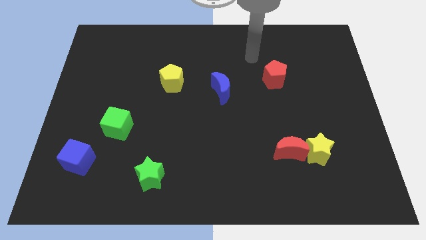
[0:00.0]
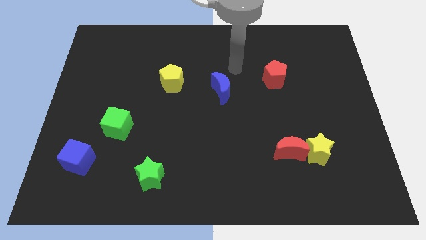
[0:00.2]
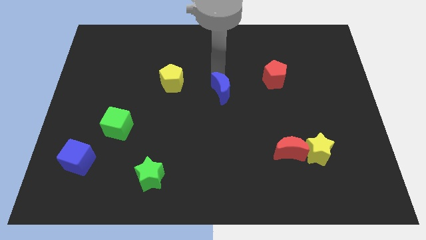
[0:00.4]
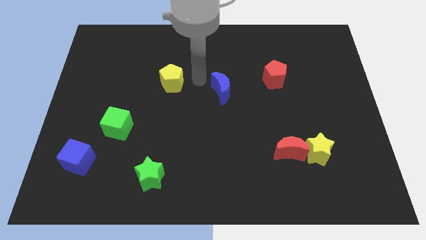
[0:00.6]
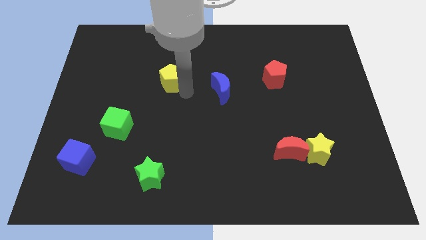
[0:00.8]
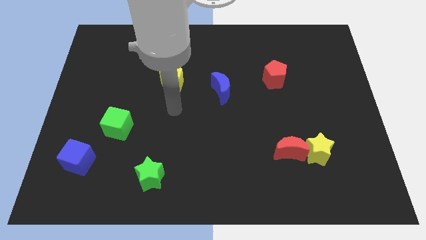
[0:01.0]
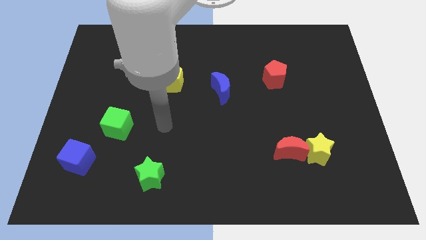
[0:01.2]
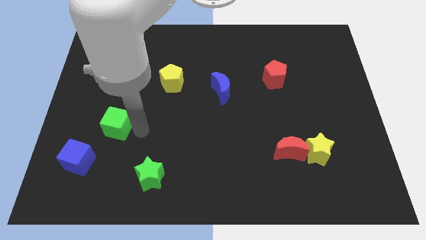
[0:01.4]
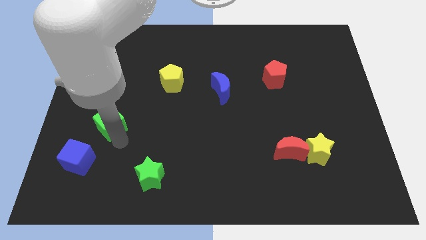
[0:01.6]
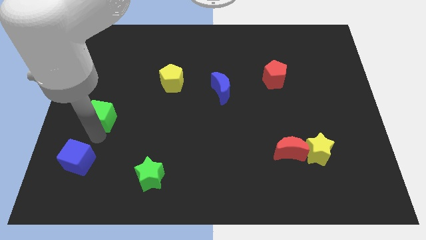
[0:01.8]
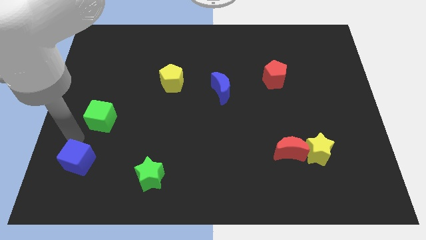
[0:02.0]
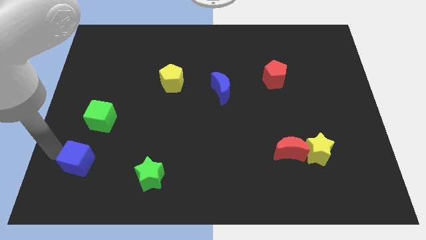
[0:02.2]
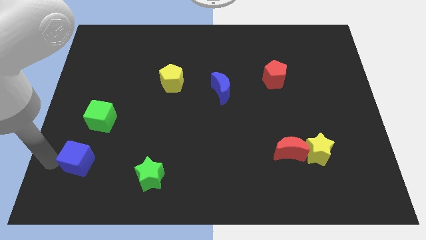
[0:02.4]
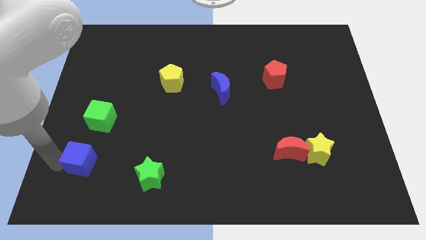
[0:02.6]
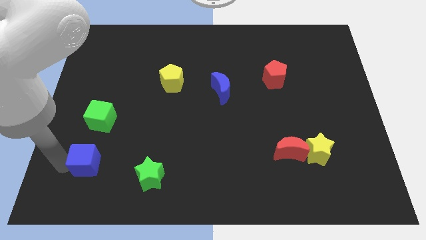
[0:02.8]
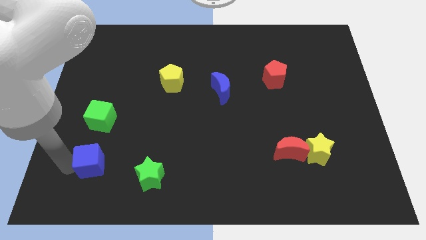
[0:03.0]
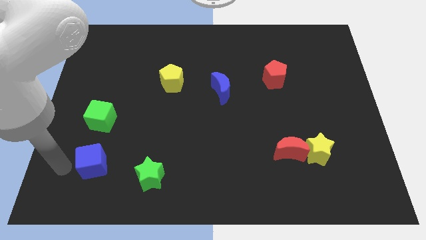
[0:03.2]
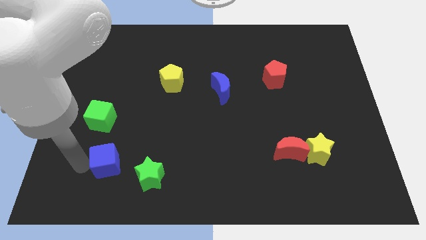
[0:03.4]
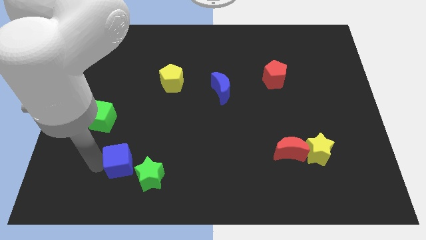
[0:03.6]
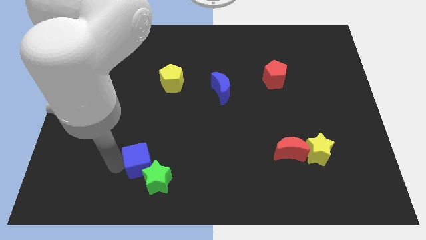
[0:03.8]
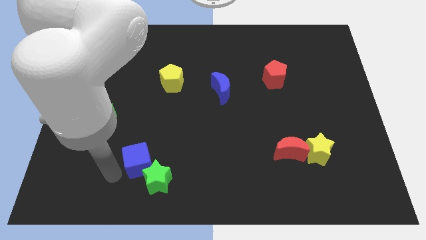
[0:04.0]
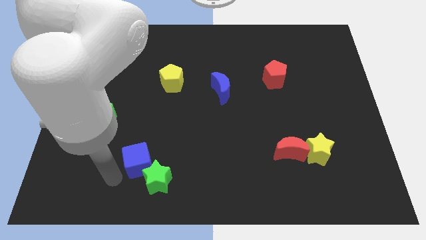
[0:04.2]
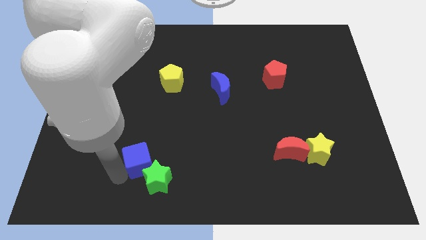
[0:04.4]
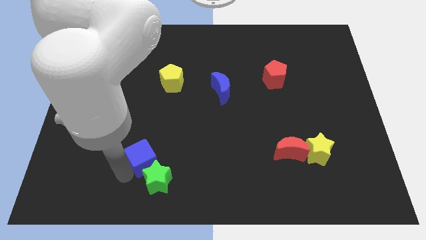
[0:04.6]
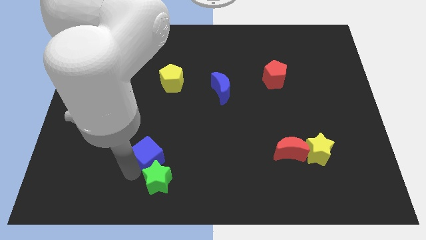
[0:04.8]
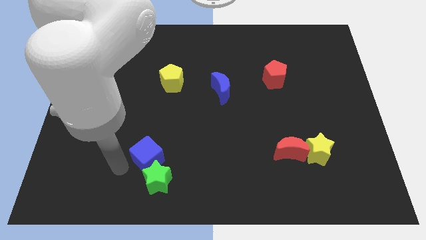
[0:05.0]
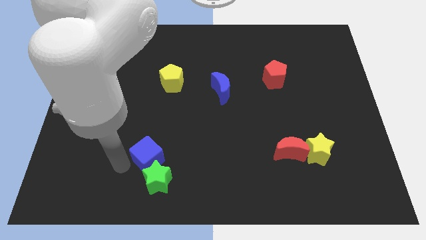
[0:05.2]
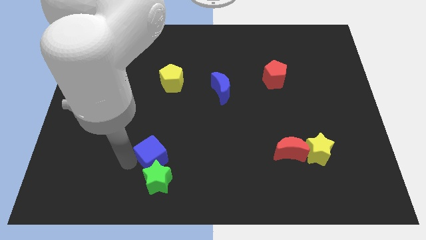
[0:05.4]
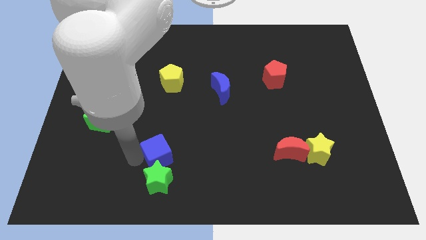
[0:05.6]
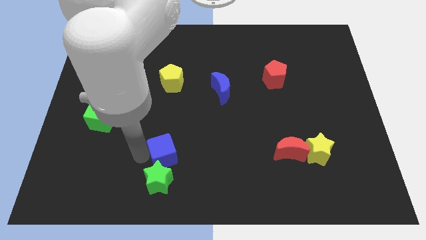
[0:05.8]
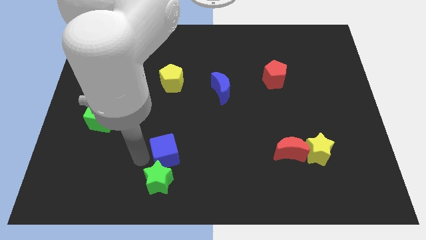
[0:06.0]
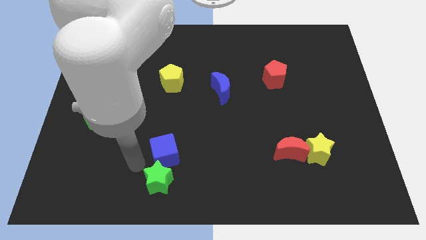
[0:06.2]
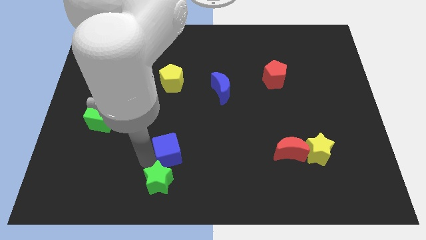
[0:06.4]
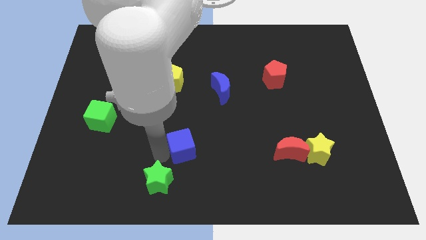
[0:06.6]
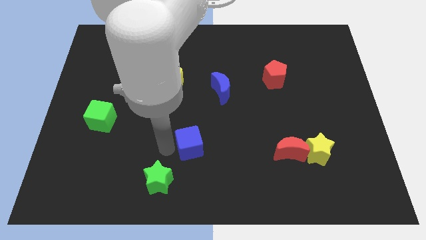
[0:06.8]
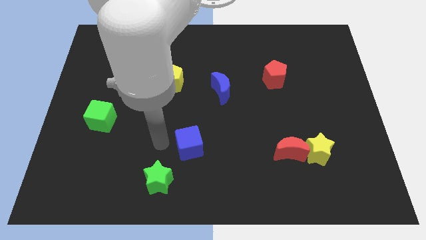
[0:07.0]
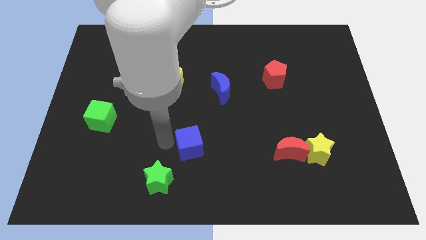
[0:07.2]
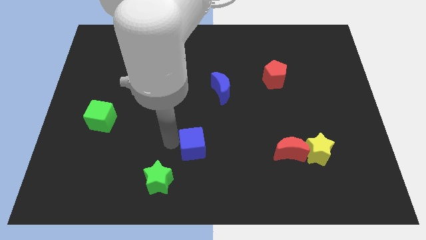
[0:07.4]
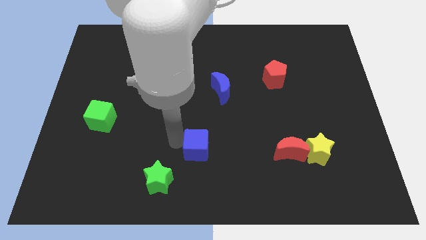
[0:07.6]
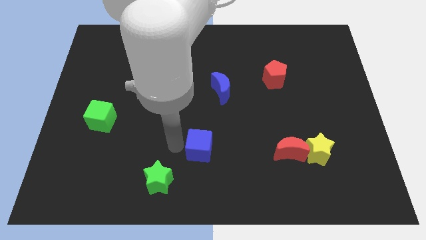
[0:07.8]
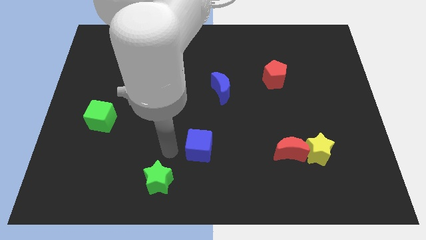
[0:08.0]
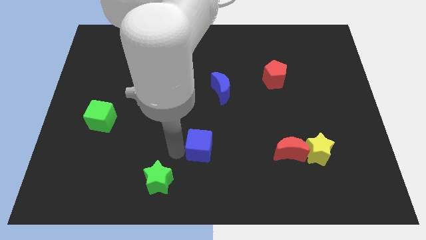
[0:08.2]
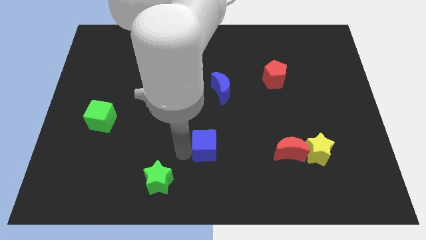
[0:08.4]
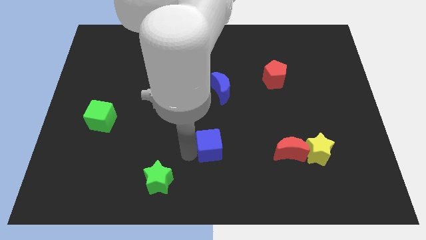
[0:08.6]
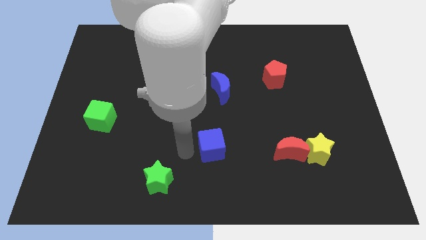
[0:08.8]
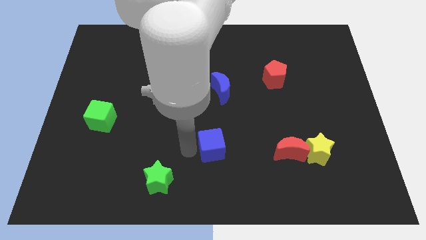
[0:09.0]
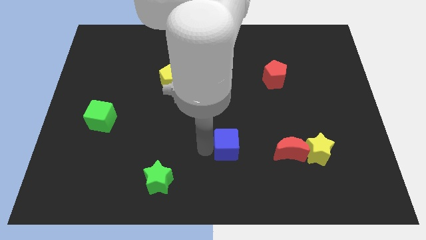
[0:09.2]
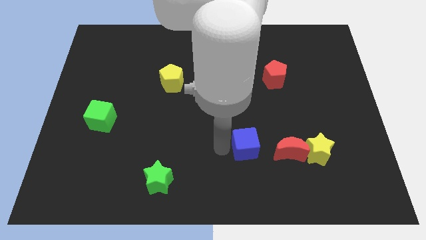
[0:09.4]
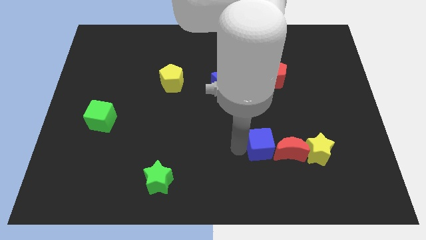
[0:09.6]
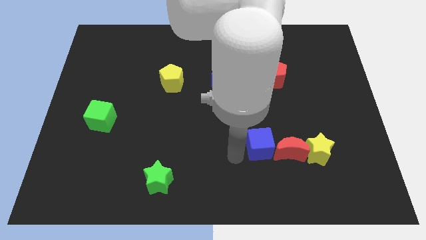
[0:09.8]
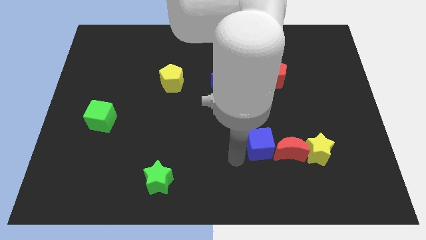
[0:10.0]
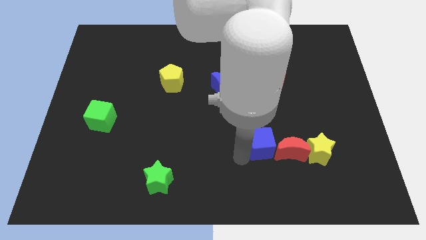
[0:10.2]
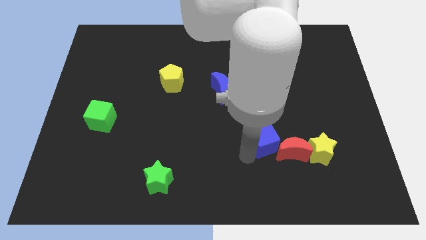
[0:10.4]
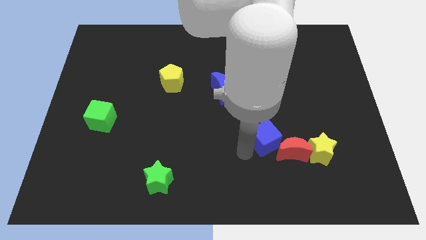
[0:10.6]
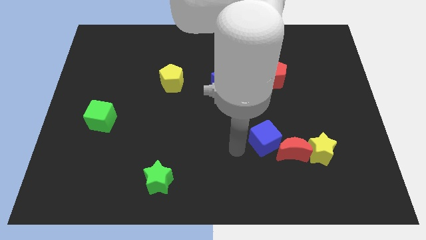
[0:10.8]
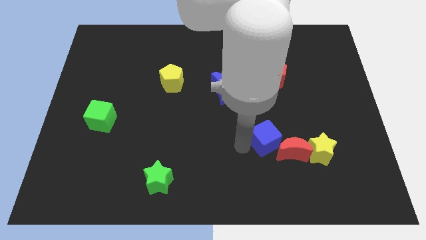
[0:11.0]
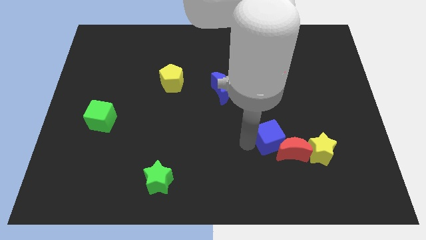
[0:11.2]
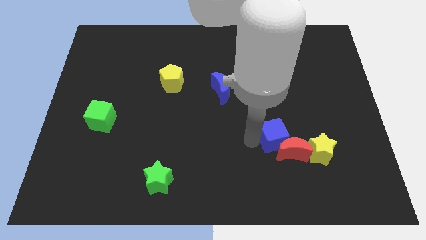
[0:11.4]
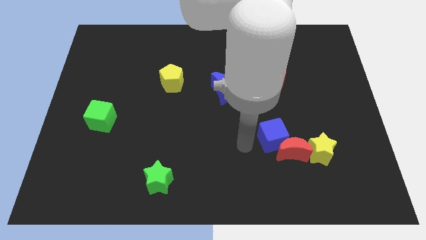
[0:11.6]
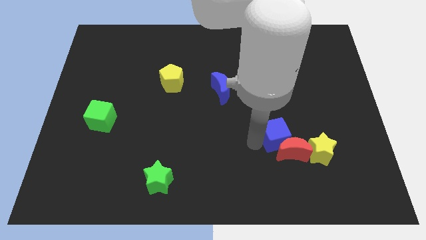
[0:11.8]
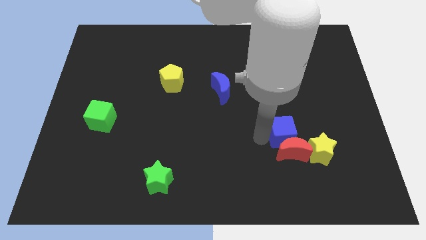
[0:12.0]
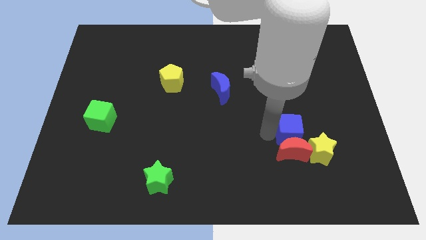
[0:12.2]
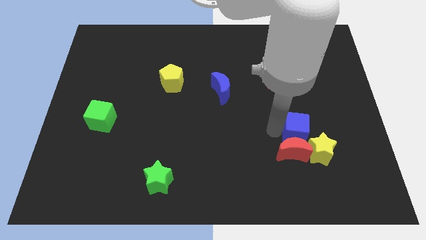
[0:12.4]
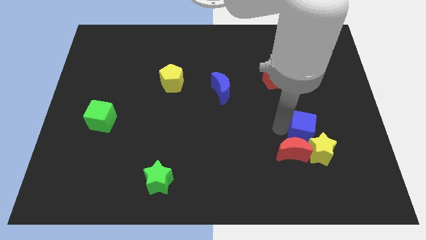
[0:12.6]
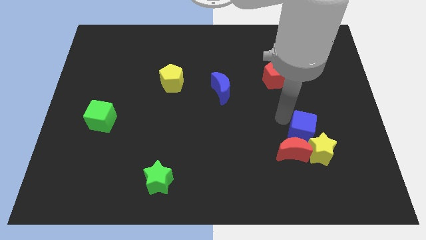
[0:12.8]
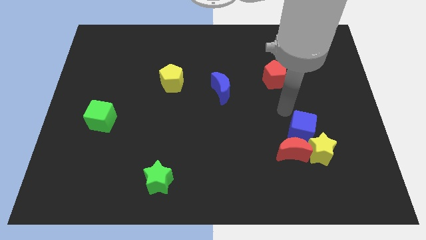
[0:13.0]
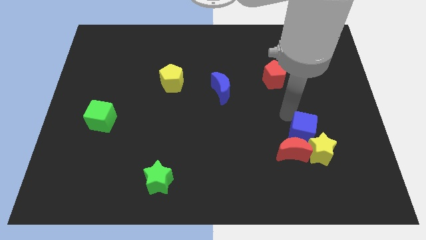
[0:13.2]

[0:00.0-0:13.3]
push the blue cube towards the yellow star

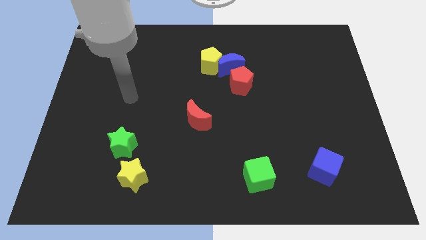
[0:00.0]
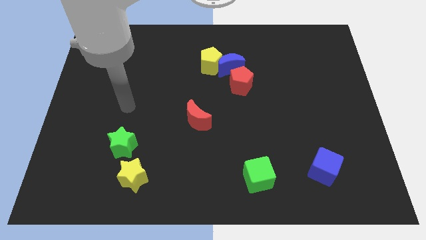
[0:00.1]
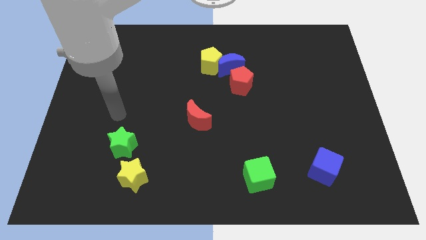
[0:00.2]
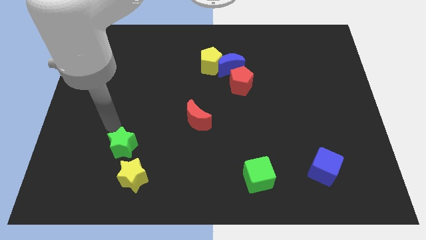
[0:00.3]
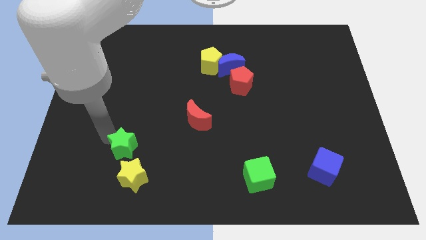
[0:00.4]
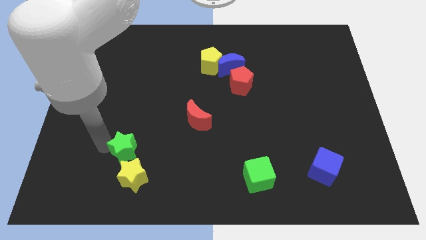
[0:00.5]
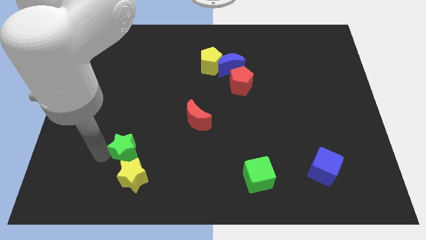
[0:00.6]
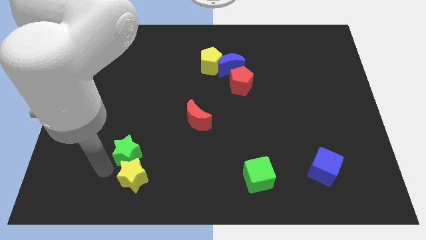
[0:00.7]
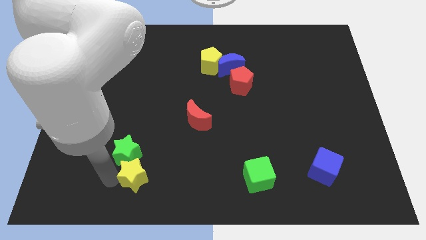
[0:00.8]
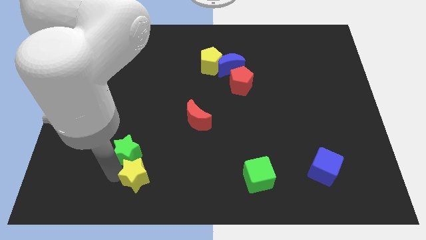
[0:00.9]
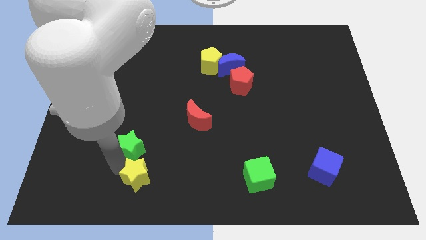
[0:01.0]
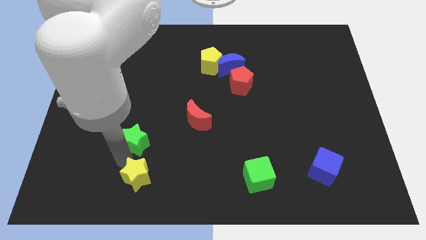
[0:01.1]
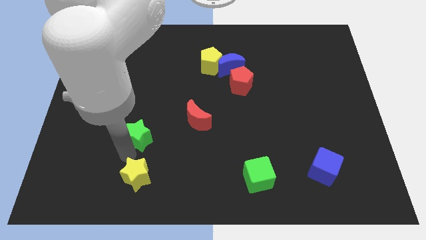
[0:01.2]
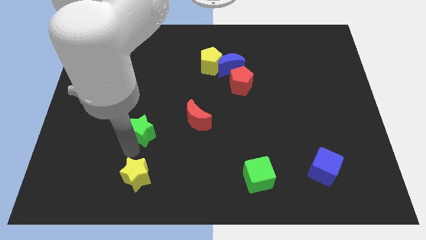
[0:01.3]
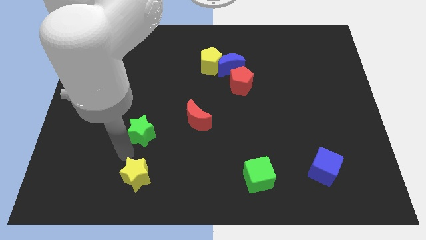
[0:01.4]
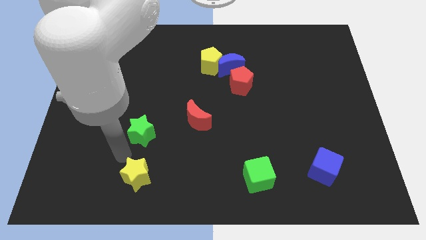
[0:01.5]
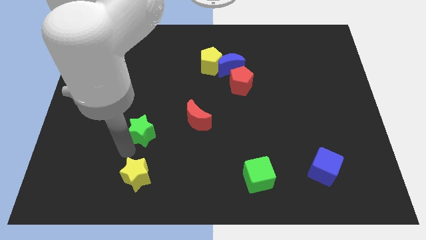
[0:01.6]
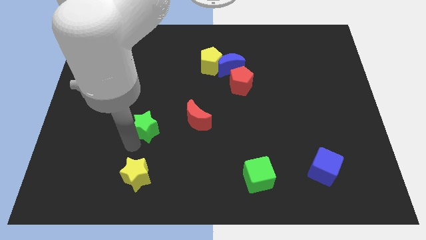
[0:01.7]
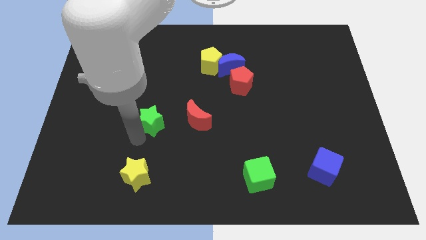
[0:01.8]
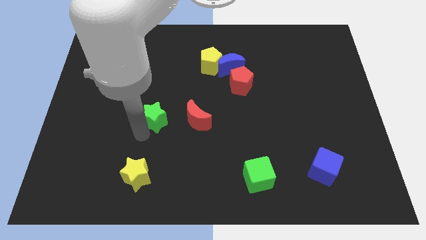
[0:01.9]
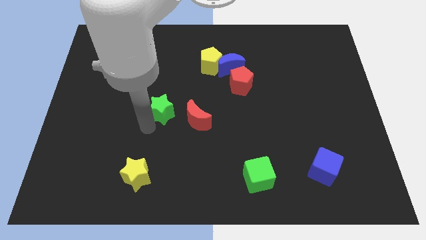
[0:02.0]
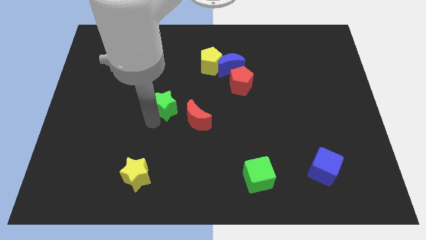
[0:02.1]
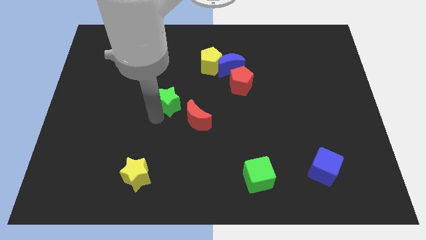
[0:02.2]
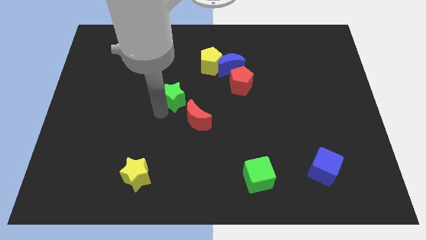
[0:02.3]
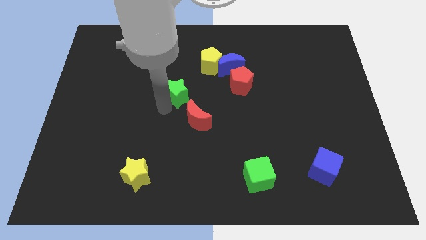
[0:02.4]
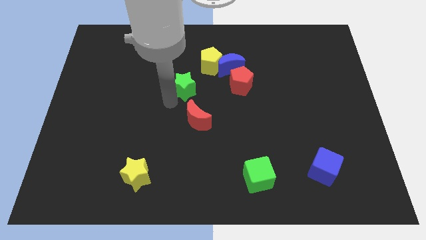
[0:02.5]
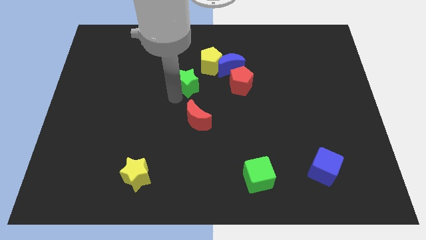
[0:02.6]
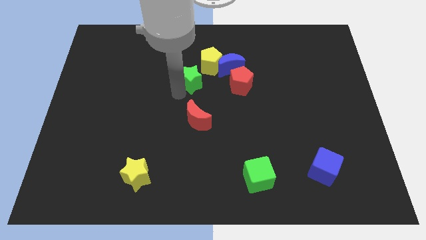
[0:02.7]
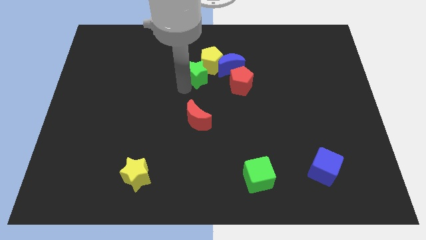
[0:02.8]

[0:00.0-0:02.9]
put the green star close to the yellow pentagon
